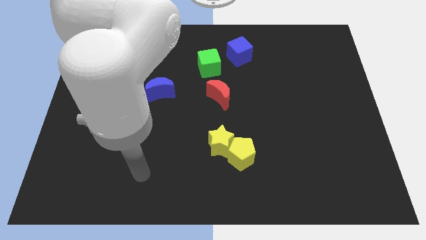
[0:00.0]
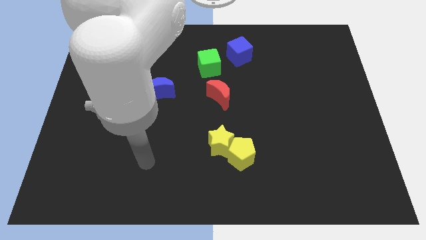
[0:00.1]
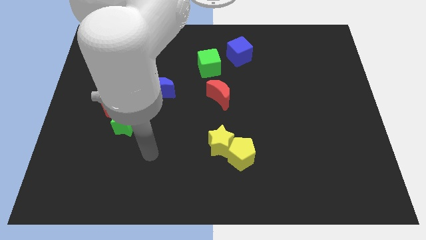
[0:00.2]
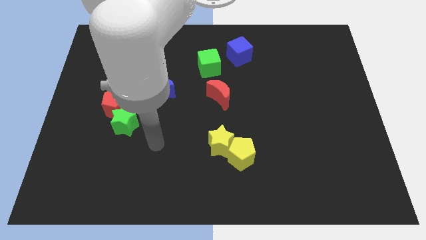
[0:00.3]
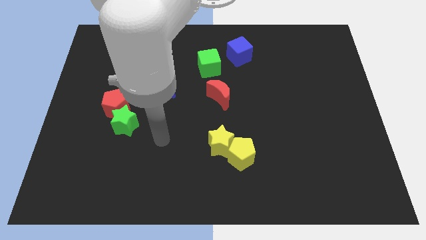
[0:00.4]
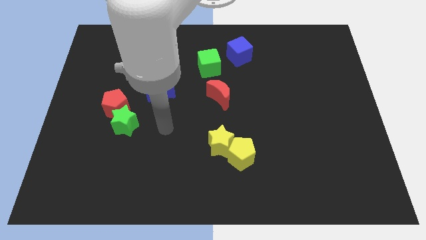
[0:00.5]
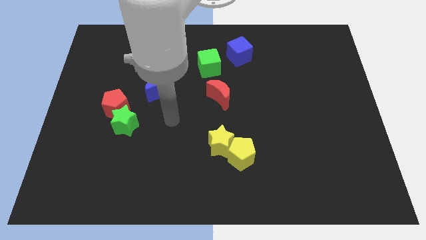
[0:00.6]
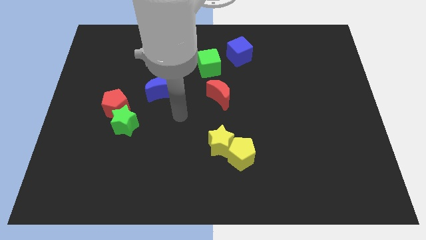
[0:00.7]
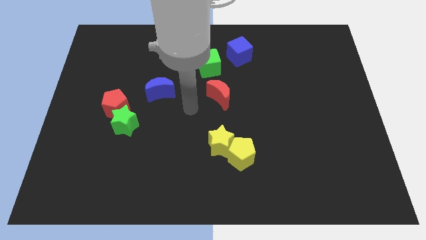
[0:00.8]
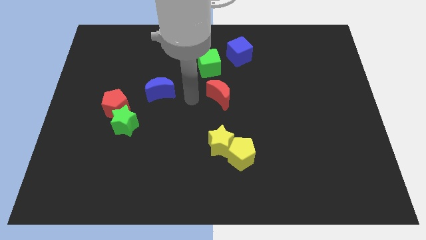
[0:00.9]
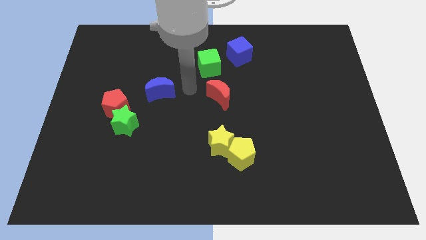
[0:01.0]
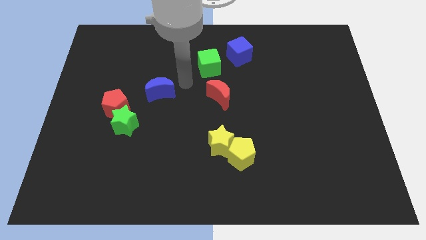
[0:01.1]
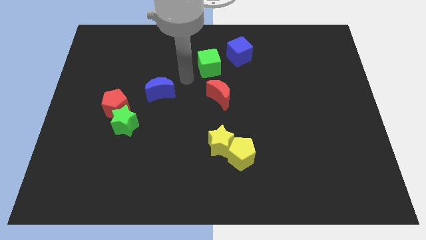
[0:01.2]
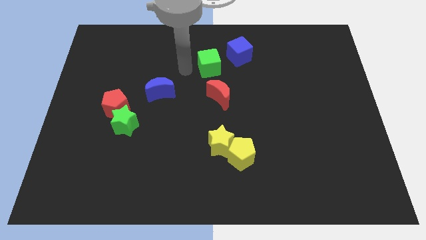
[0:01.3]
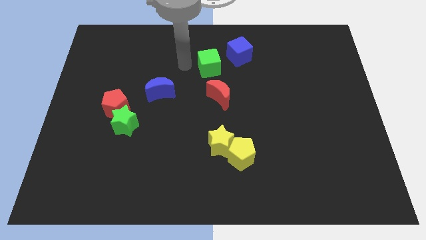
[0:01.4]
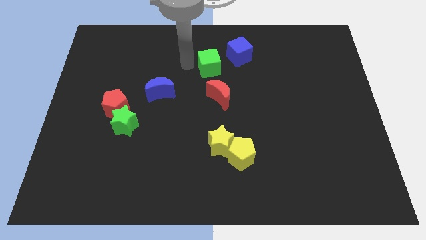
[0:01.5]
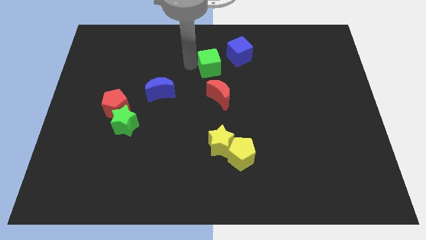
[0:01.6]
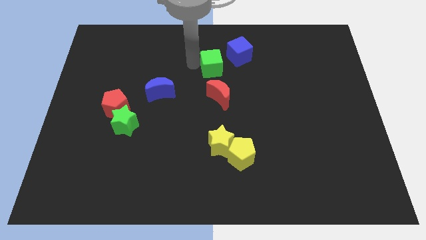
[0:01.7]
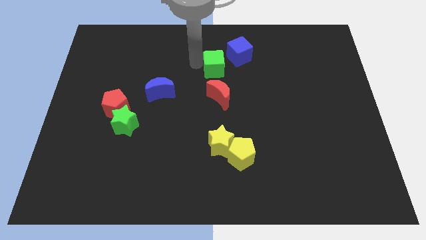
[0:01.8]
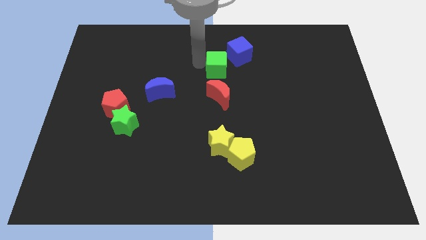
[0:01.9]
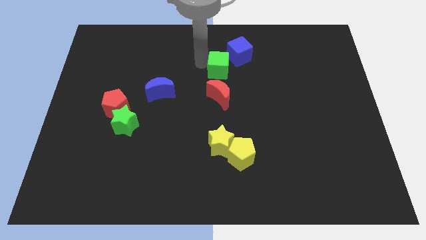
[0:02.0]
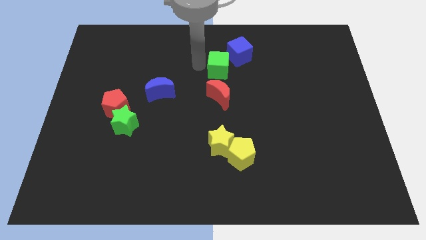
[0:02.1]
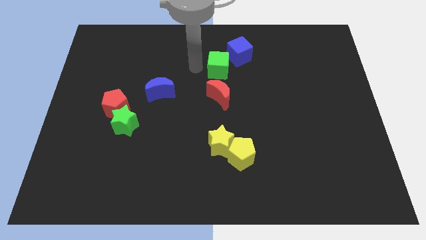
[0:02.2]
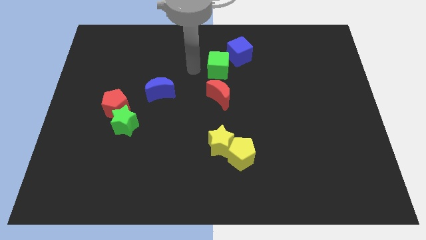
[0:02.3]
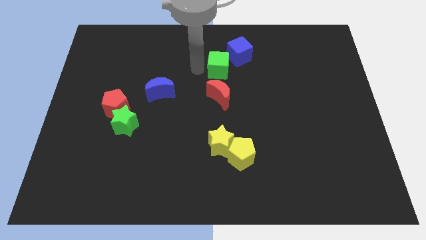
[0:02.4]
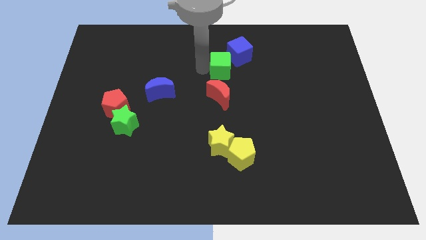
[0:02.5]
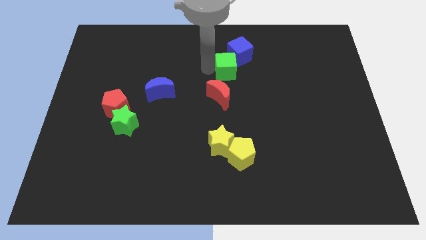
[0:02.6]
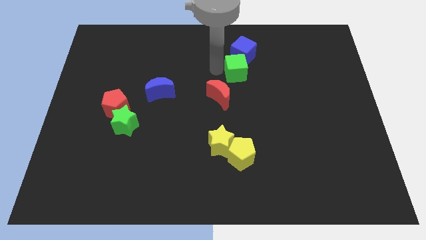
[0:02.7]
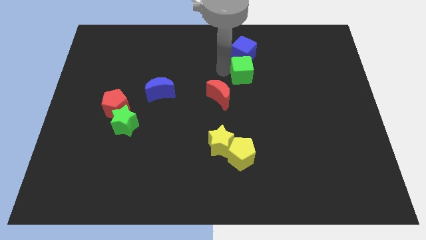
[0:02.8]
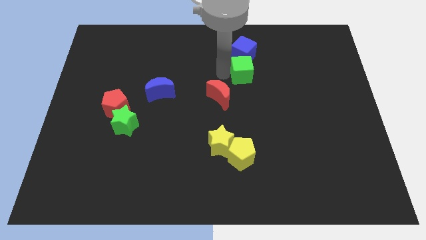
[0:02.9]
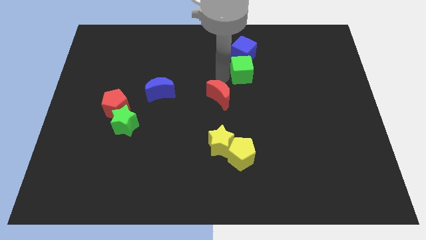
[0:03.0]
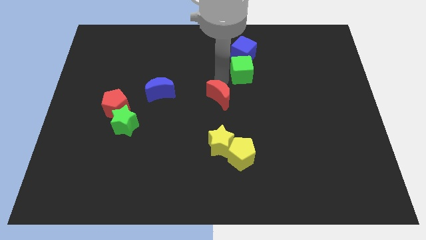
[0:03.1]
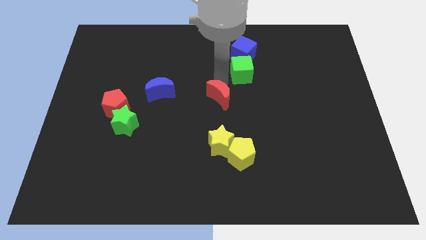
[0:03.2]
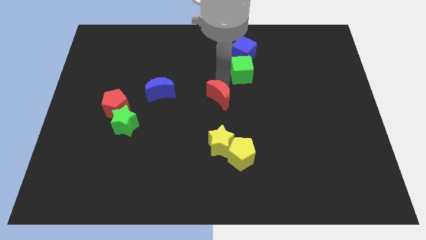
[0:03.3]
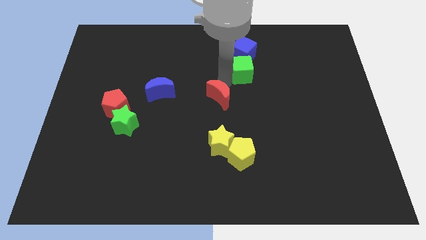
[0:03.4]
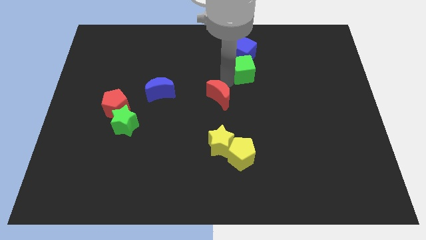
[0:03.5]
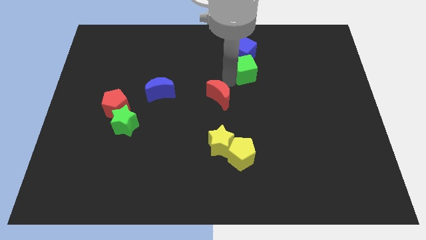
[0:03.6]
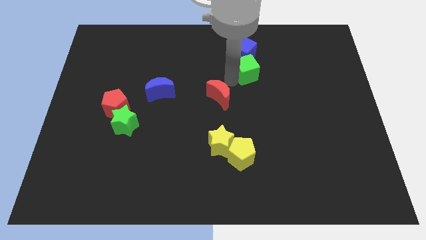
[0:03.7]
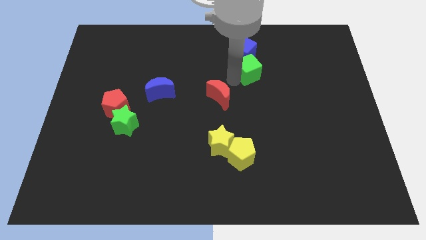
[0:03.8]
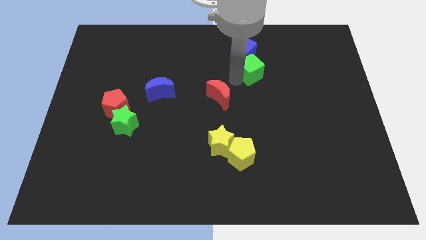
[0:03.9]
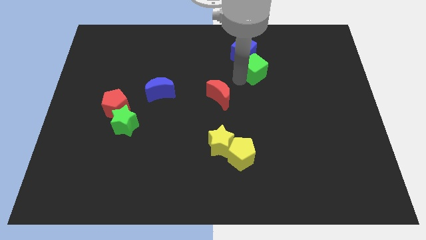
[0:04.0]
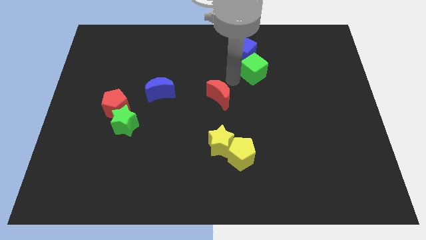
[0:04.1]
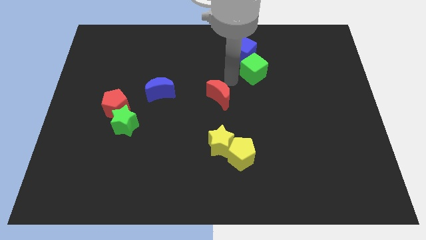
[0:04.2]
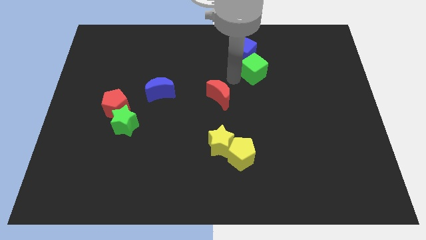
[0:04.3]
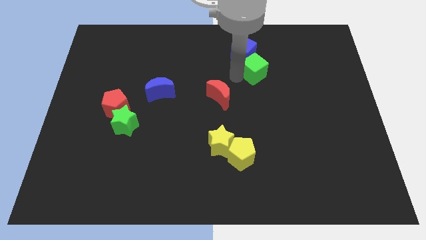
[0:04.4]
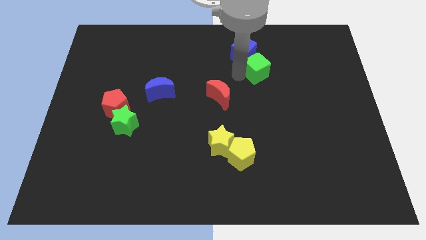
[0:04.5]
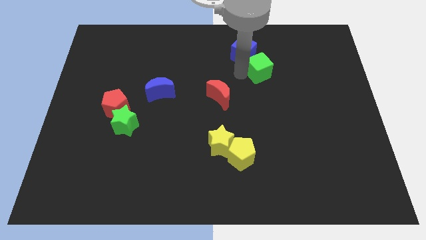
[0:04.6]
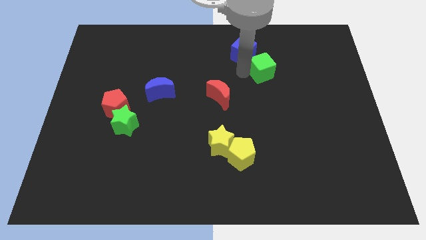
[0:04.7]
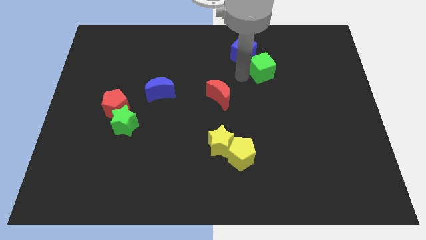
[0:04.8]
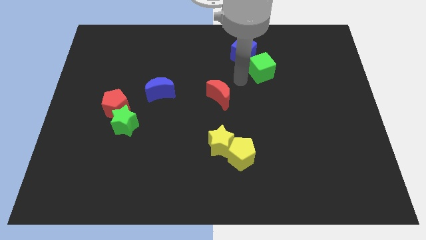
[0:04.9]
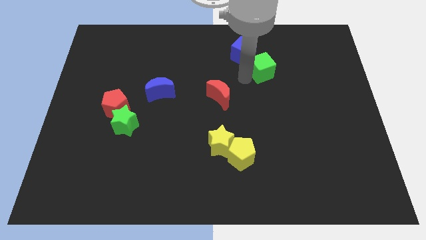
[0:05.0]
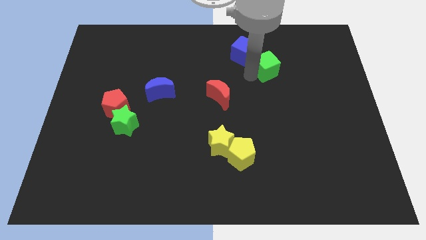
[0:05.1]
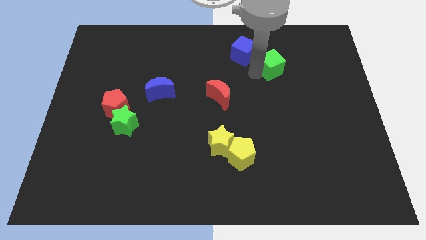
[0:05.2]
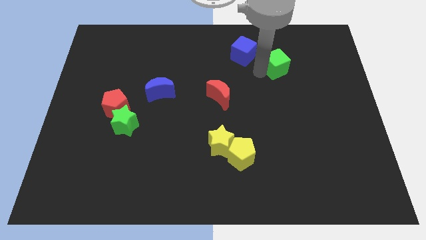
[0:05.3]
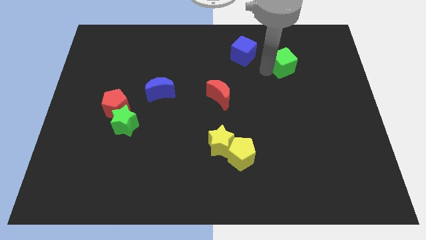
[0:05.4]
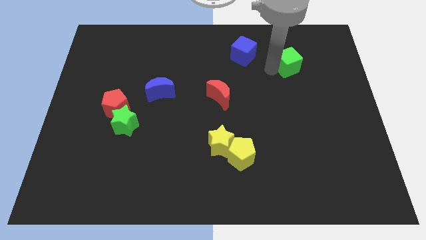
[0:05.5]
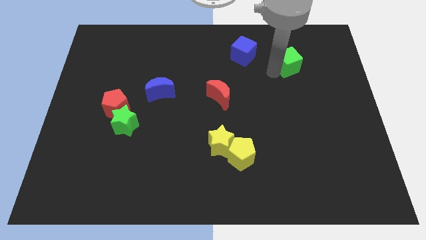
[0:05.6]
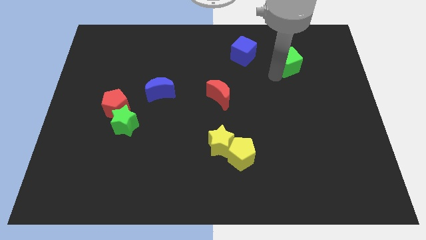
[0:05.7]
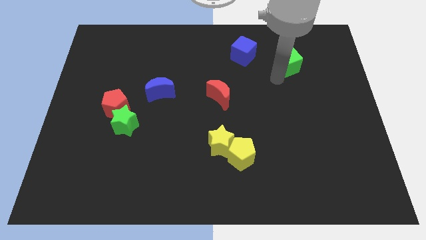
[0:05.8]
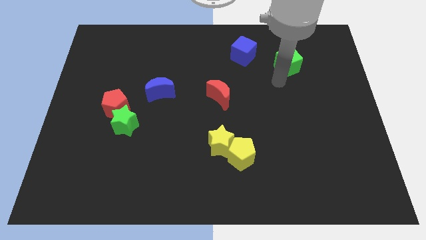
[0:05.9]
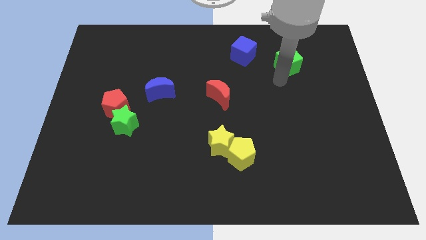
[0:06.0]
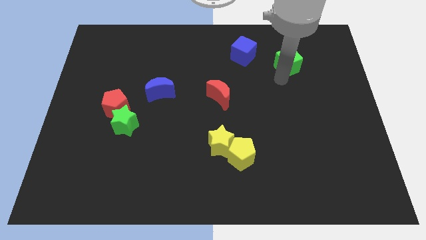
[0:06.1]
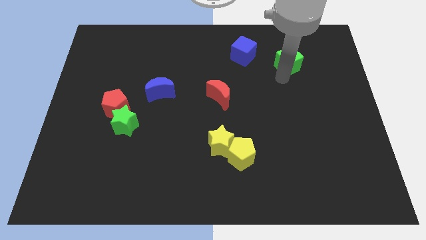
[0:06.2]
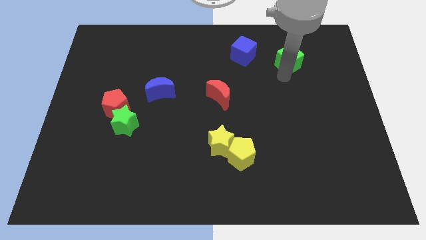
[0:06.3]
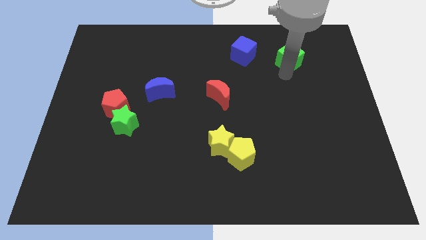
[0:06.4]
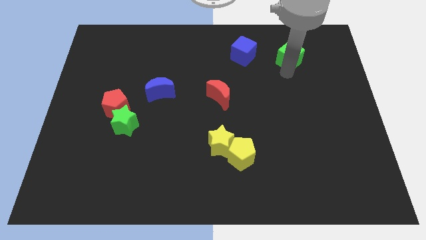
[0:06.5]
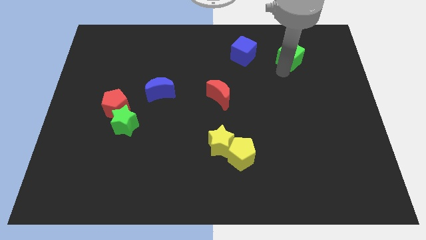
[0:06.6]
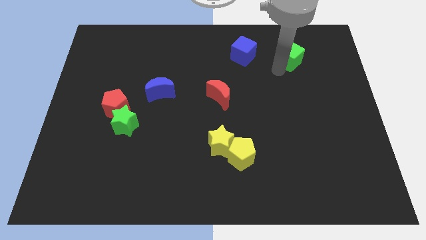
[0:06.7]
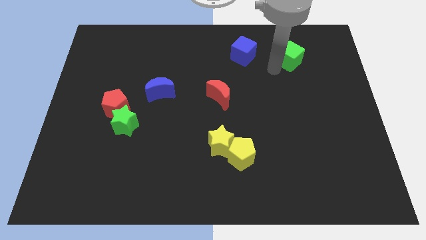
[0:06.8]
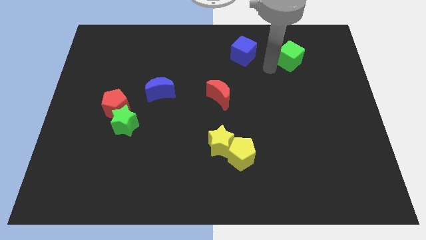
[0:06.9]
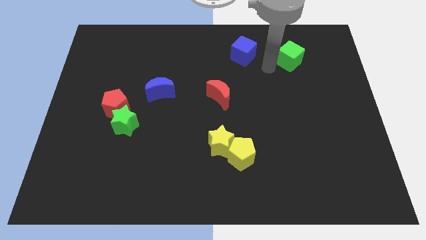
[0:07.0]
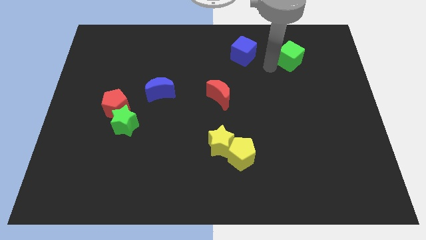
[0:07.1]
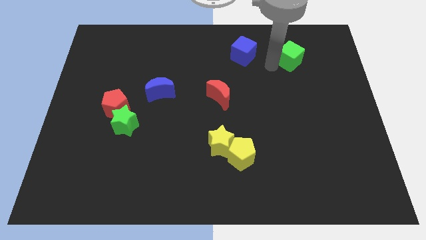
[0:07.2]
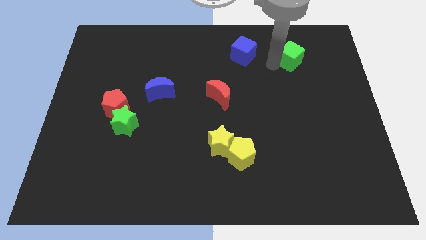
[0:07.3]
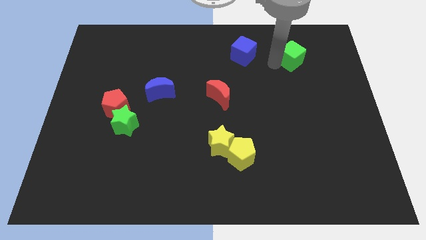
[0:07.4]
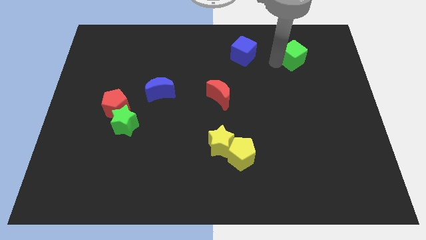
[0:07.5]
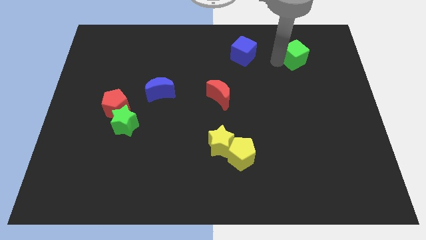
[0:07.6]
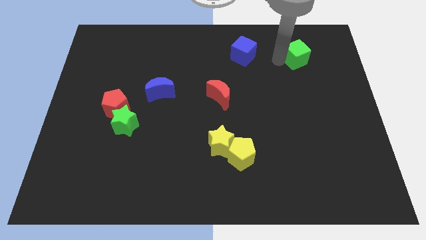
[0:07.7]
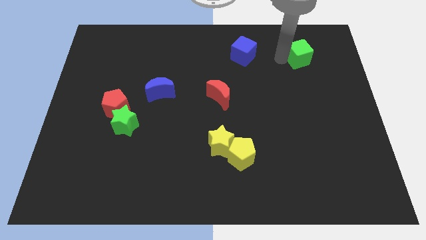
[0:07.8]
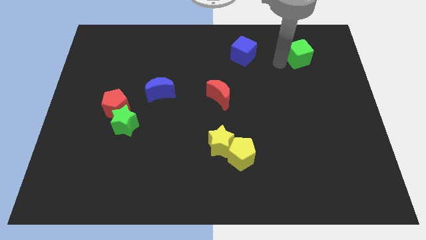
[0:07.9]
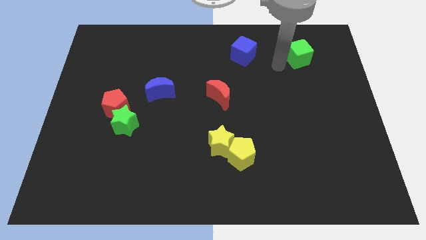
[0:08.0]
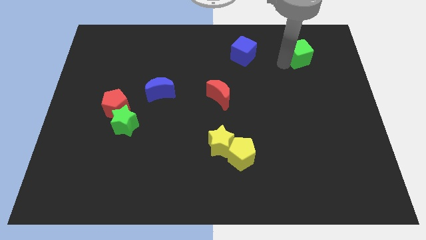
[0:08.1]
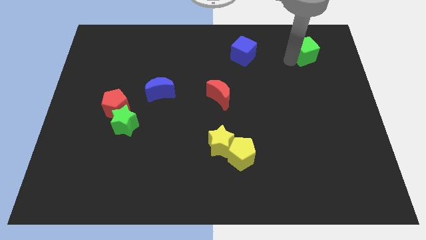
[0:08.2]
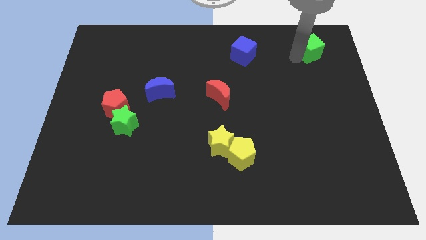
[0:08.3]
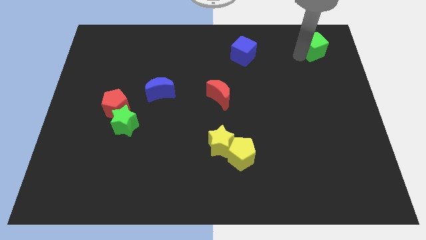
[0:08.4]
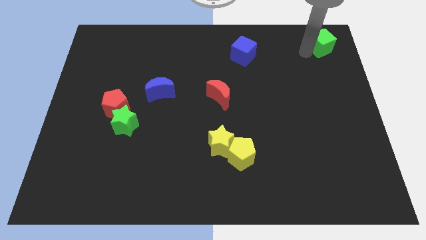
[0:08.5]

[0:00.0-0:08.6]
slide the green cube to the upper right corner
